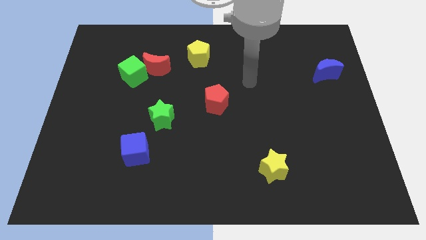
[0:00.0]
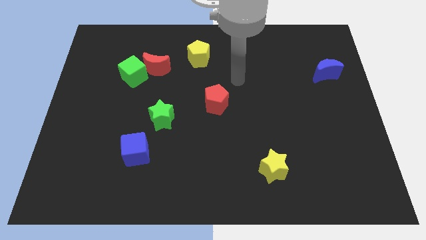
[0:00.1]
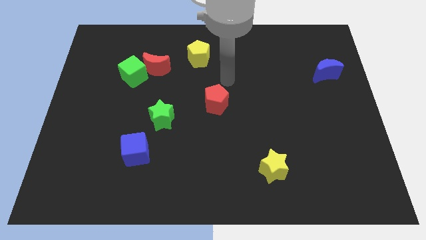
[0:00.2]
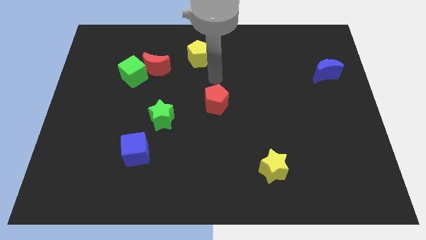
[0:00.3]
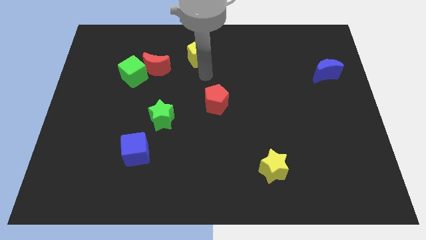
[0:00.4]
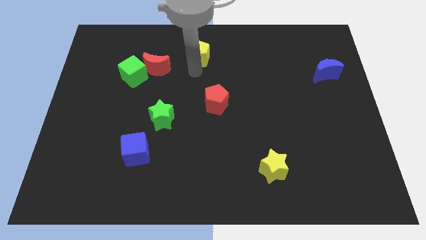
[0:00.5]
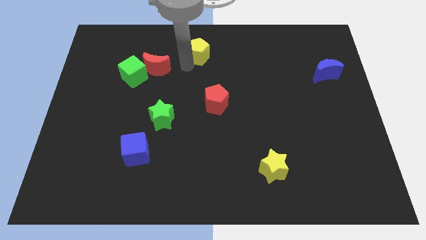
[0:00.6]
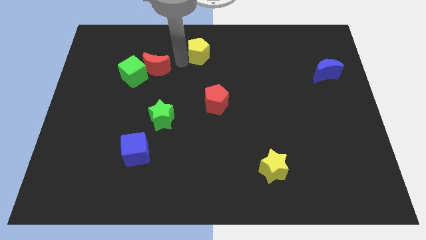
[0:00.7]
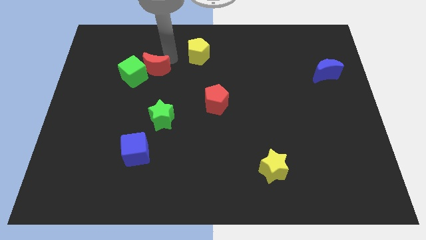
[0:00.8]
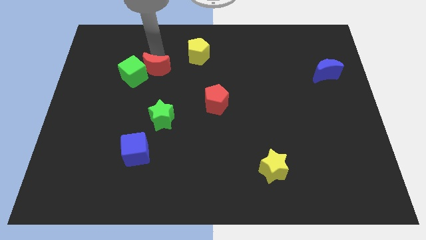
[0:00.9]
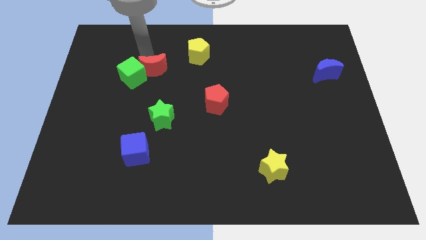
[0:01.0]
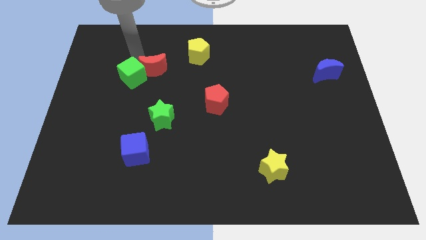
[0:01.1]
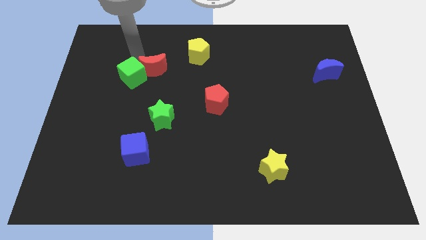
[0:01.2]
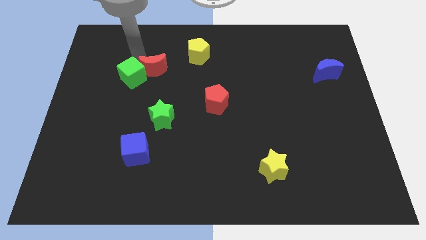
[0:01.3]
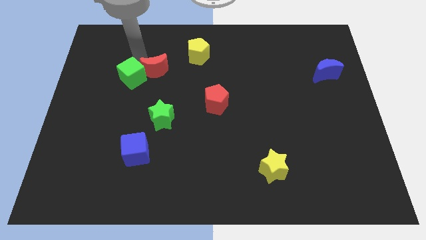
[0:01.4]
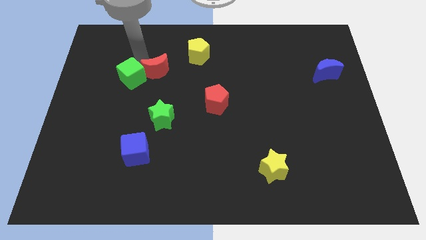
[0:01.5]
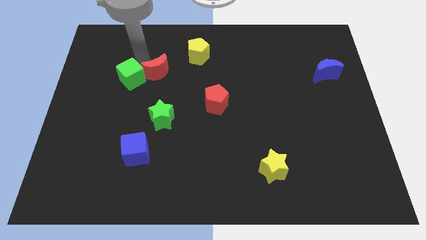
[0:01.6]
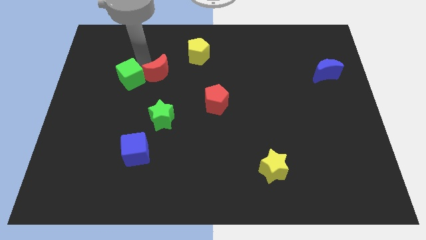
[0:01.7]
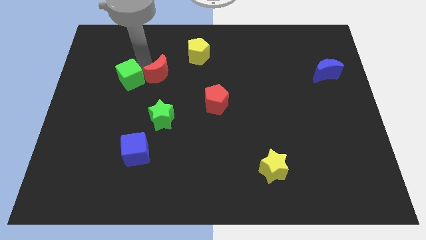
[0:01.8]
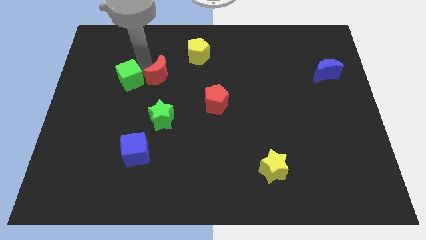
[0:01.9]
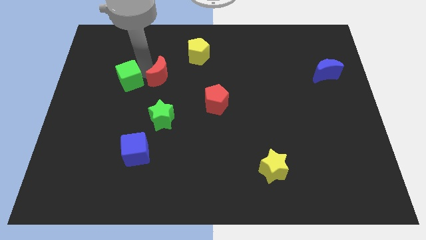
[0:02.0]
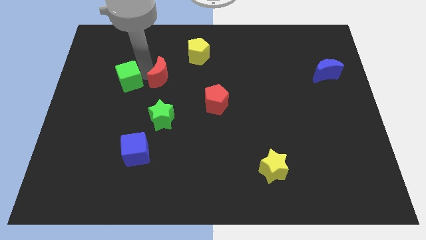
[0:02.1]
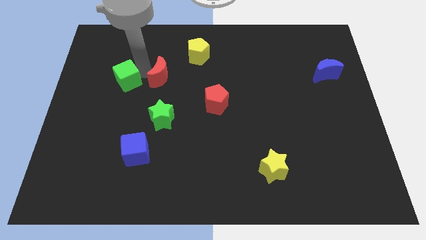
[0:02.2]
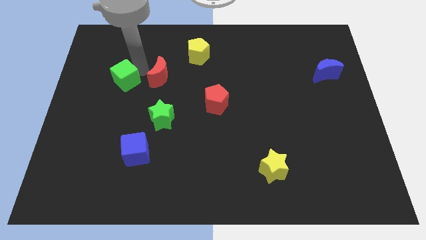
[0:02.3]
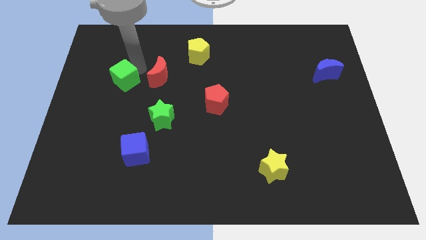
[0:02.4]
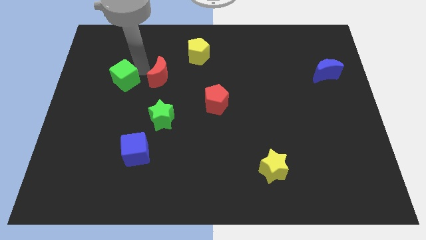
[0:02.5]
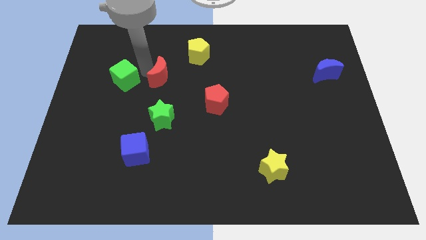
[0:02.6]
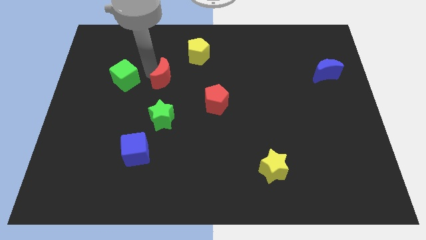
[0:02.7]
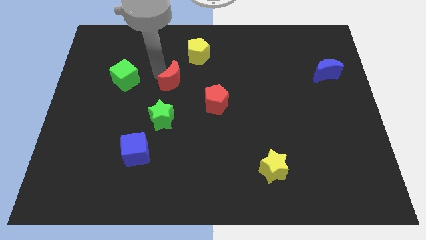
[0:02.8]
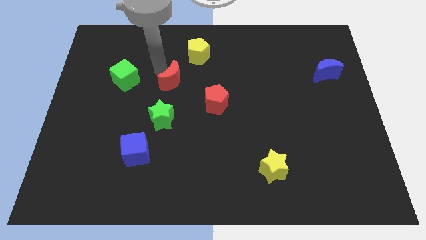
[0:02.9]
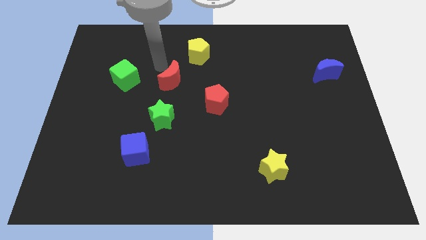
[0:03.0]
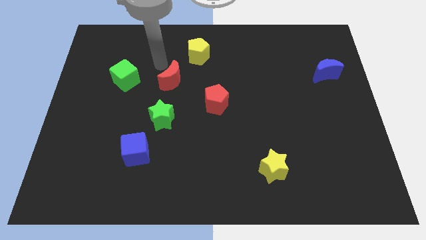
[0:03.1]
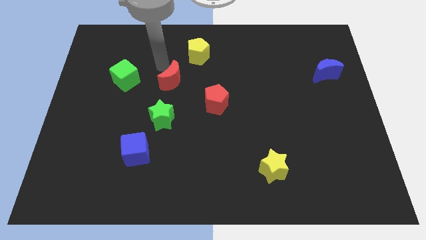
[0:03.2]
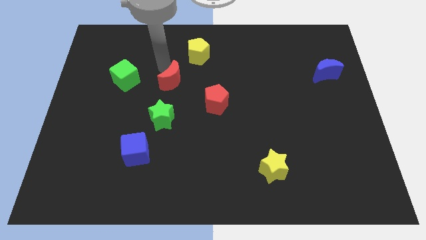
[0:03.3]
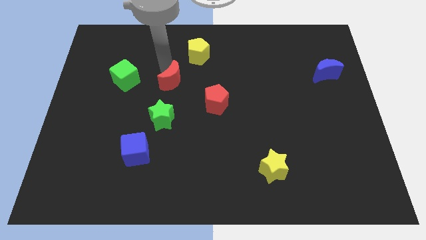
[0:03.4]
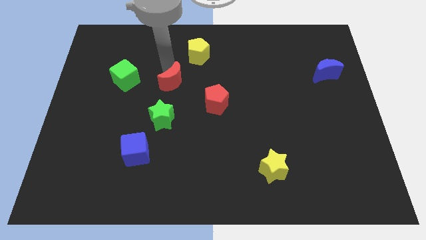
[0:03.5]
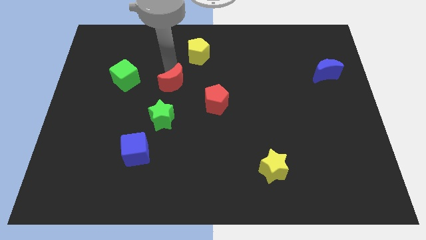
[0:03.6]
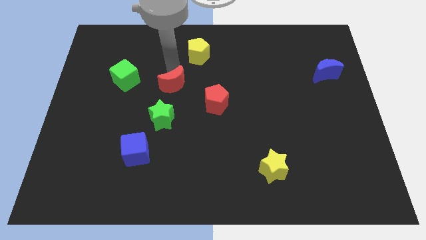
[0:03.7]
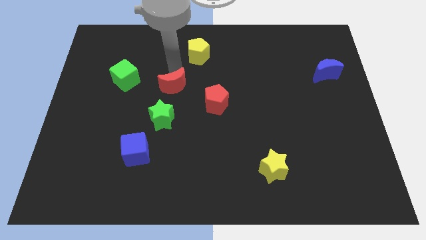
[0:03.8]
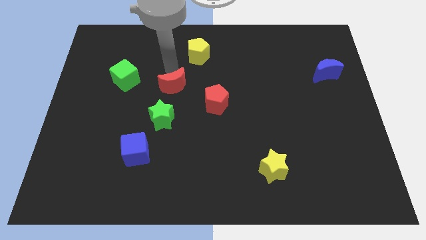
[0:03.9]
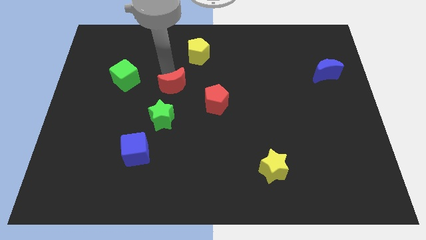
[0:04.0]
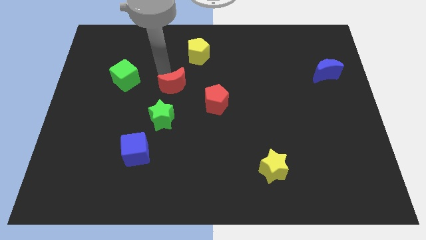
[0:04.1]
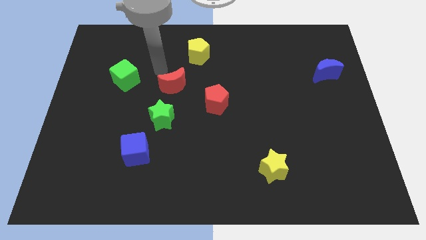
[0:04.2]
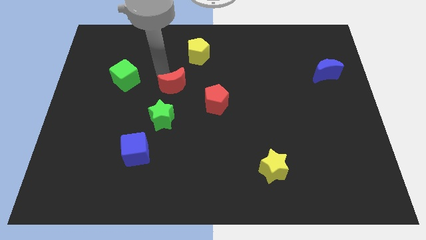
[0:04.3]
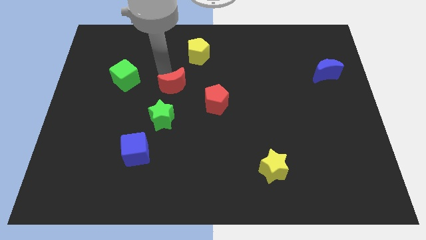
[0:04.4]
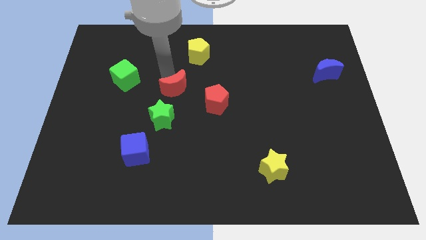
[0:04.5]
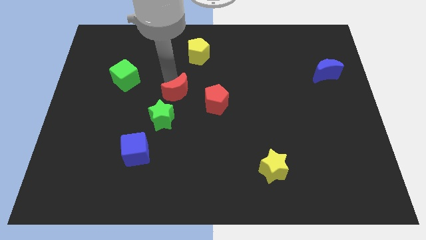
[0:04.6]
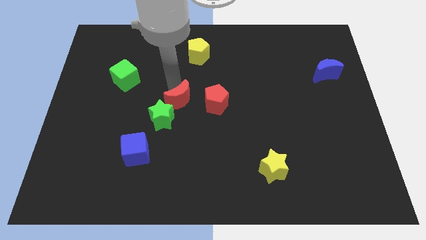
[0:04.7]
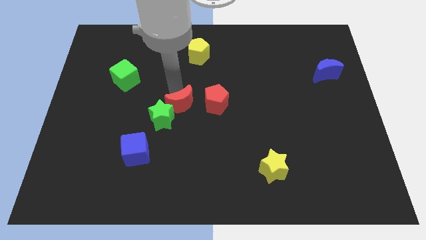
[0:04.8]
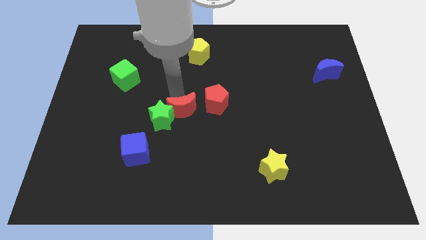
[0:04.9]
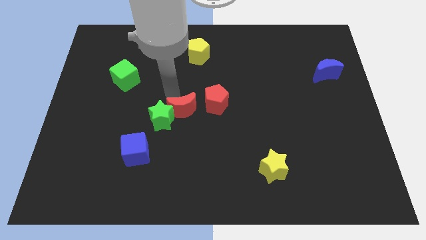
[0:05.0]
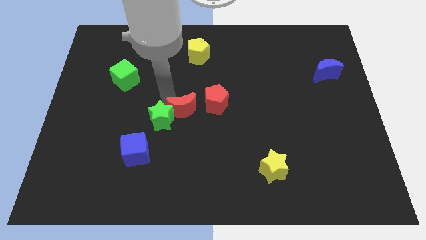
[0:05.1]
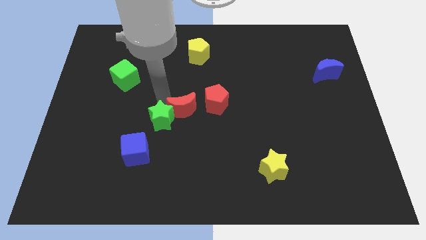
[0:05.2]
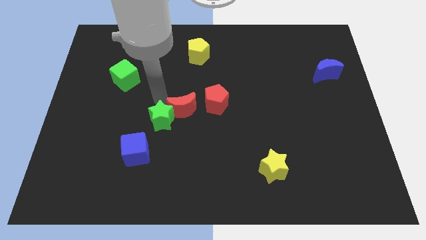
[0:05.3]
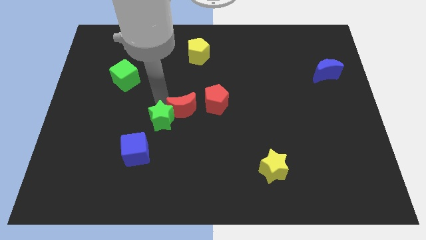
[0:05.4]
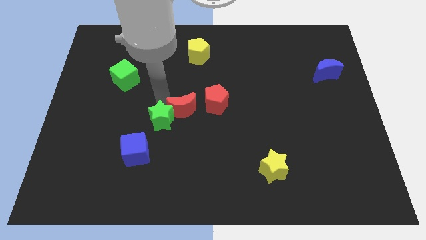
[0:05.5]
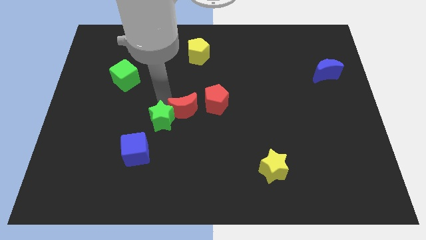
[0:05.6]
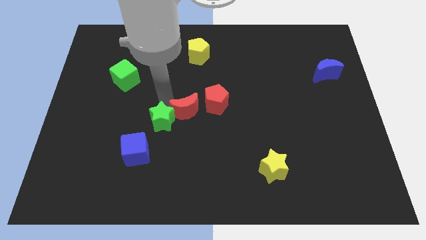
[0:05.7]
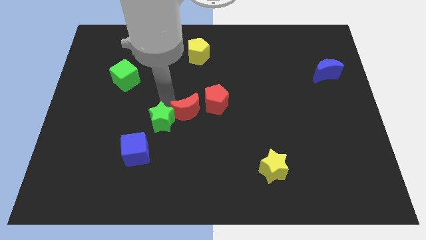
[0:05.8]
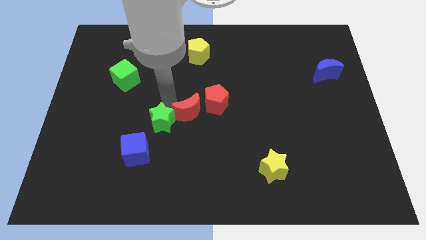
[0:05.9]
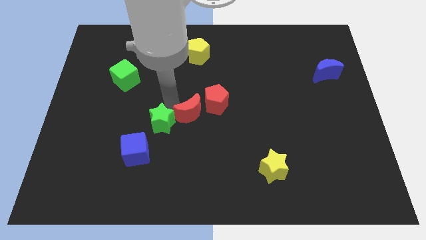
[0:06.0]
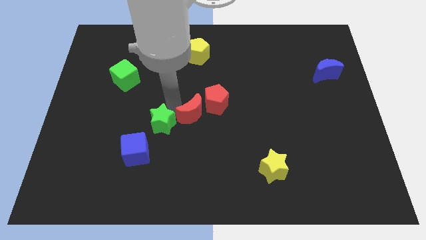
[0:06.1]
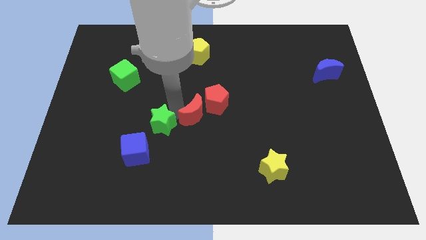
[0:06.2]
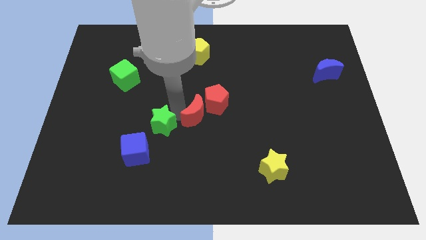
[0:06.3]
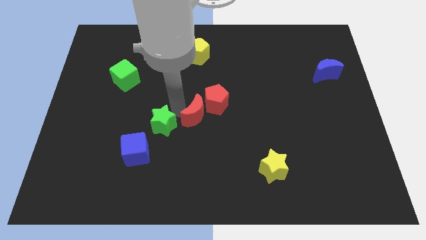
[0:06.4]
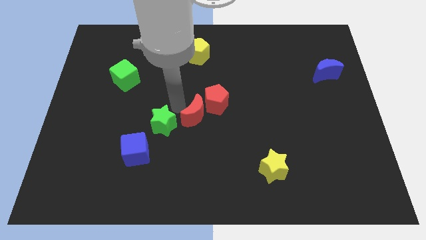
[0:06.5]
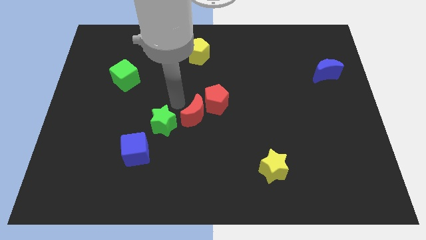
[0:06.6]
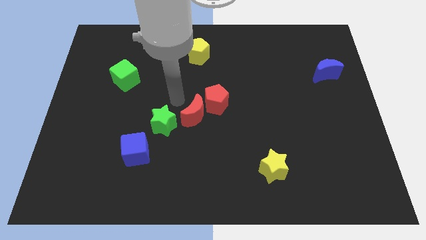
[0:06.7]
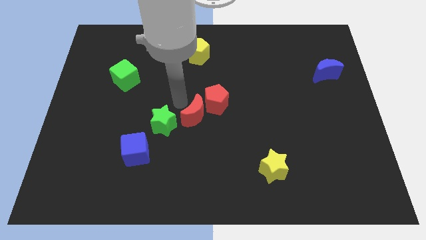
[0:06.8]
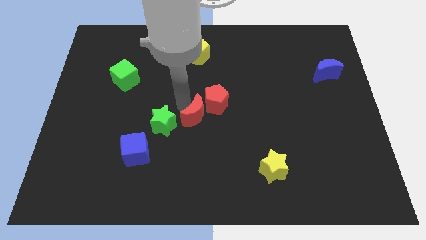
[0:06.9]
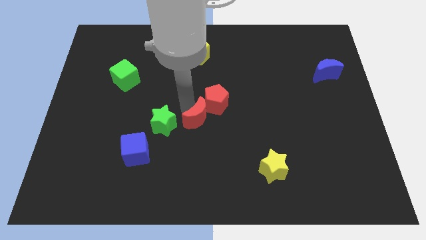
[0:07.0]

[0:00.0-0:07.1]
push the red moon below the red pentagon

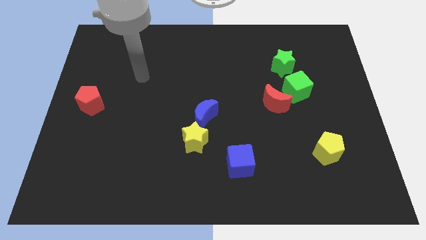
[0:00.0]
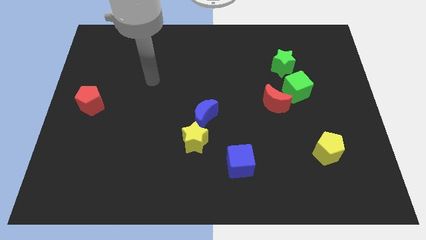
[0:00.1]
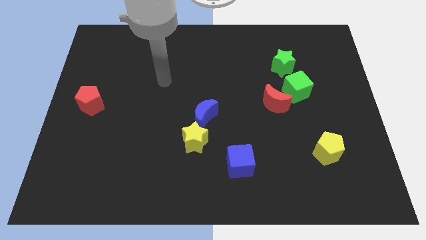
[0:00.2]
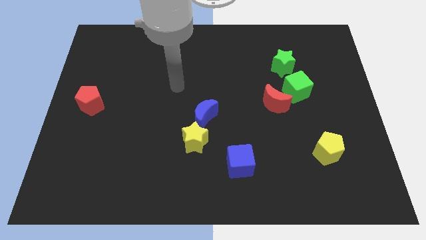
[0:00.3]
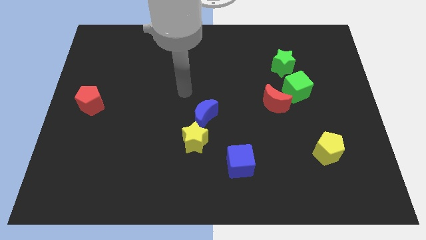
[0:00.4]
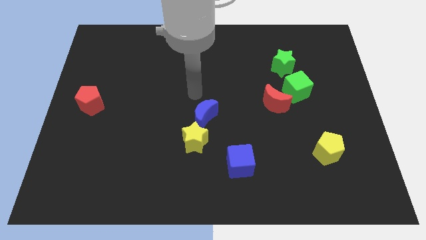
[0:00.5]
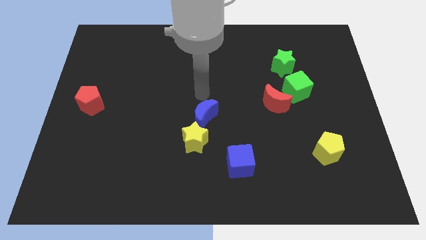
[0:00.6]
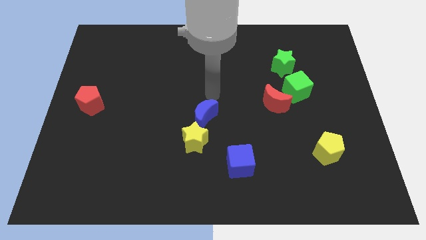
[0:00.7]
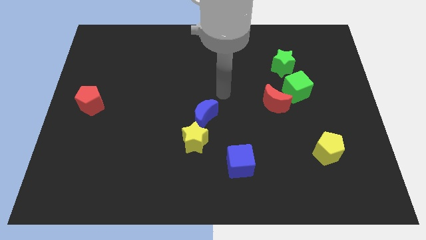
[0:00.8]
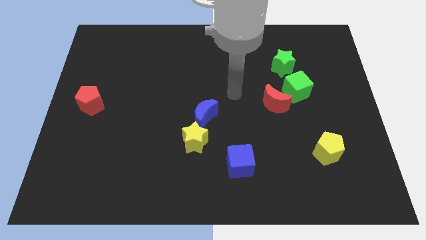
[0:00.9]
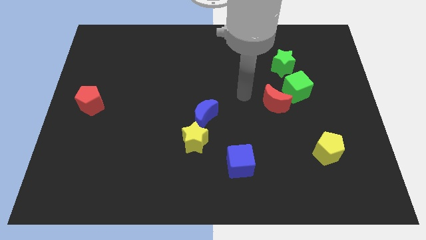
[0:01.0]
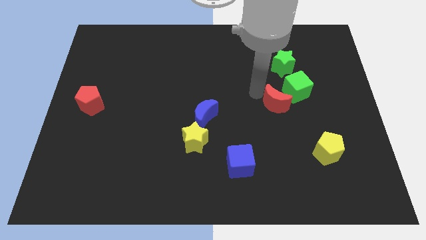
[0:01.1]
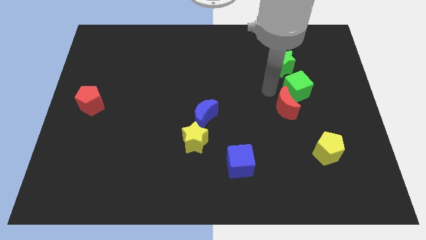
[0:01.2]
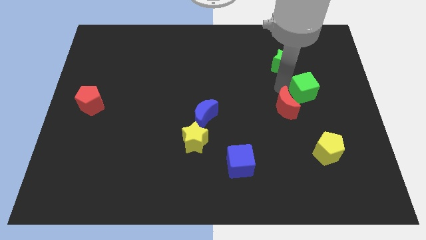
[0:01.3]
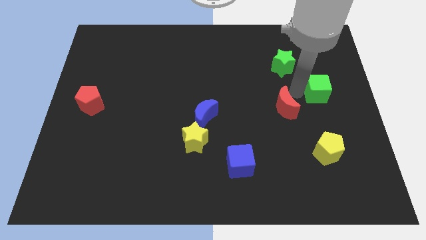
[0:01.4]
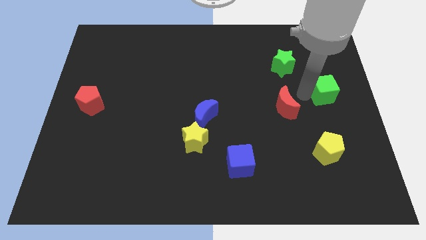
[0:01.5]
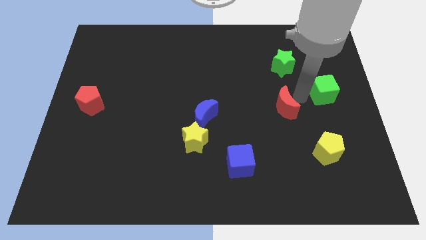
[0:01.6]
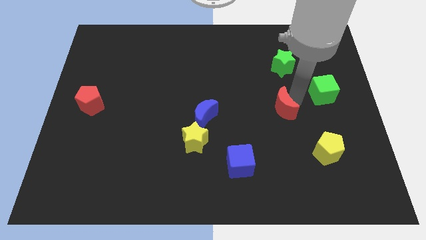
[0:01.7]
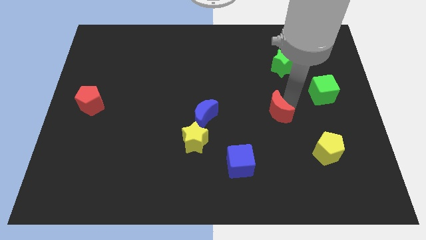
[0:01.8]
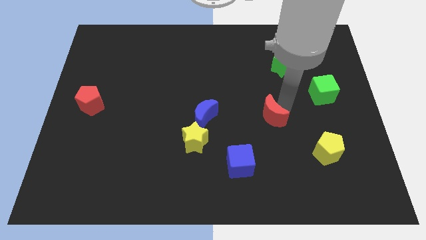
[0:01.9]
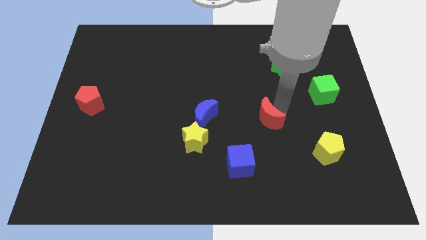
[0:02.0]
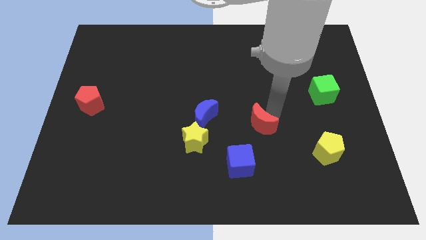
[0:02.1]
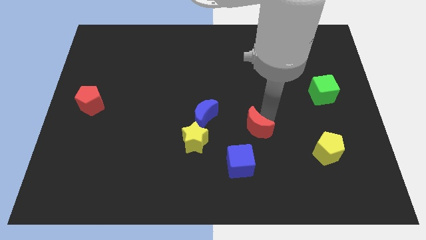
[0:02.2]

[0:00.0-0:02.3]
push the red moon to the right of the yellow star
